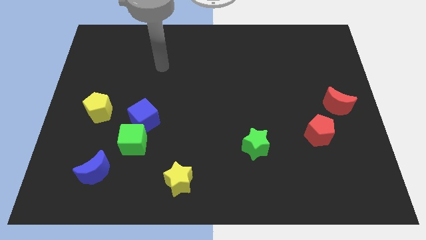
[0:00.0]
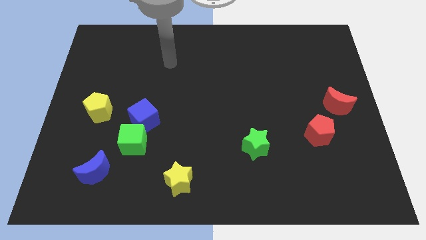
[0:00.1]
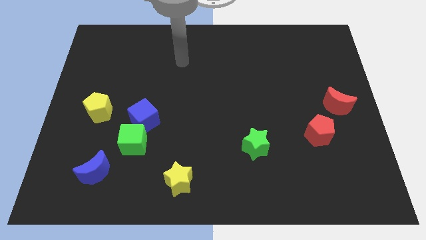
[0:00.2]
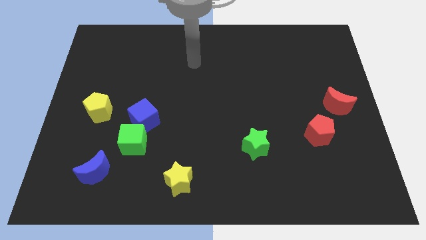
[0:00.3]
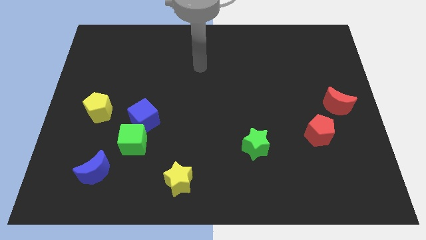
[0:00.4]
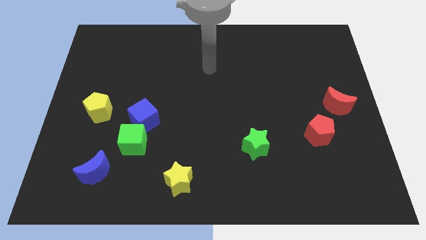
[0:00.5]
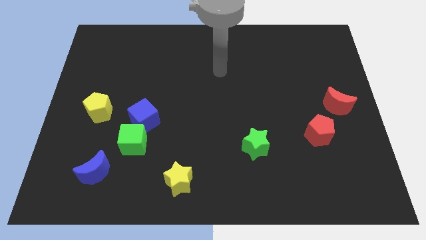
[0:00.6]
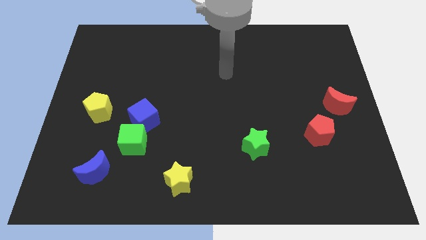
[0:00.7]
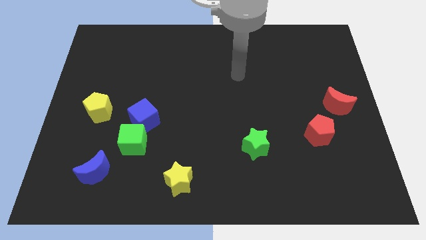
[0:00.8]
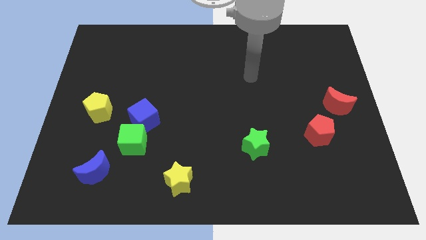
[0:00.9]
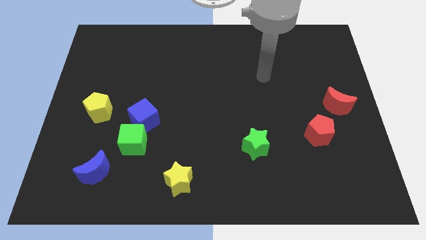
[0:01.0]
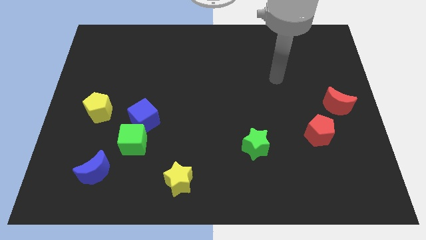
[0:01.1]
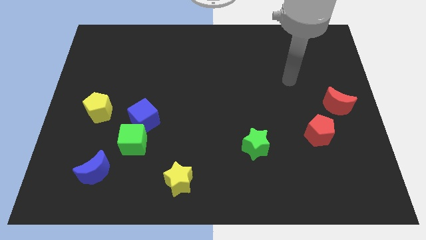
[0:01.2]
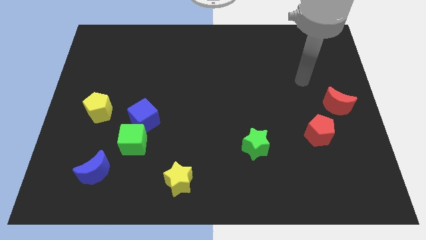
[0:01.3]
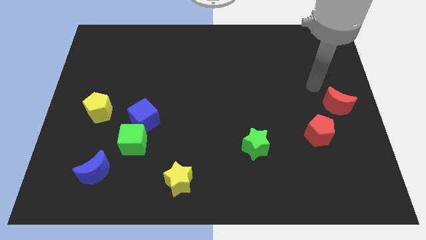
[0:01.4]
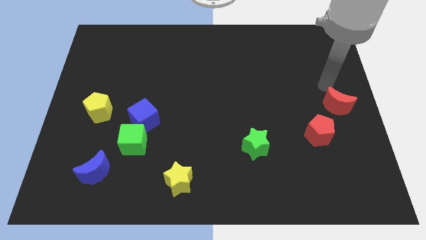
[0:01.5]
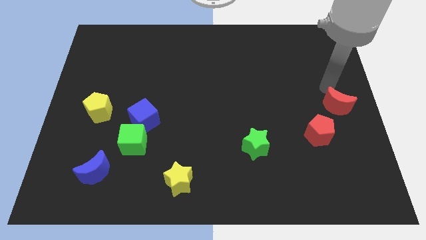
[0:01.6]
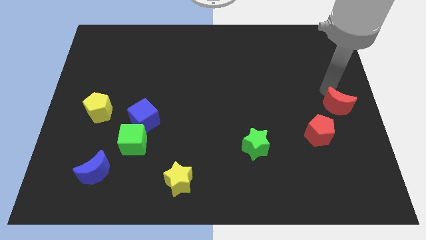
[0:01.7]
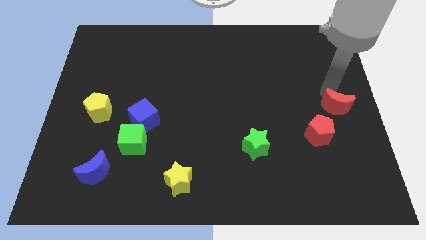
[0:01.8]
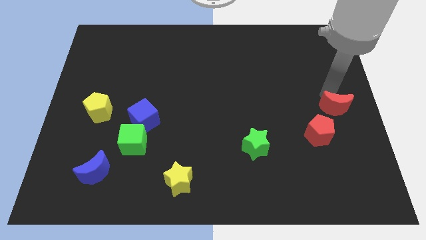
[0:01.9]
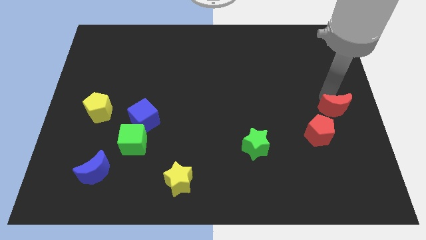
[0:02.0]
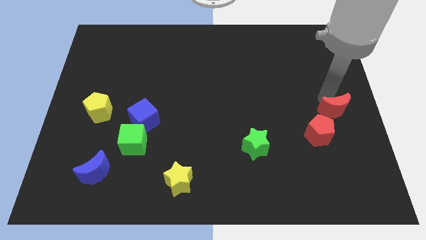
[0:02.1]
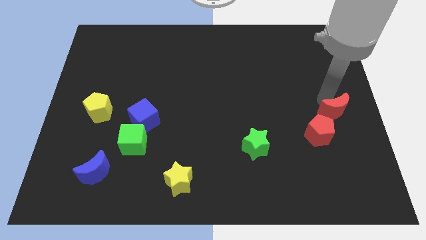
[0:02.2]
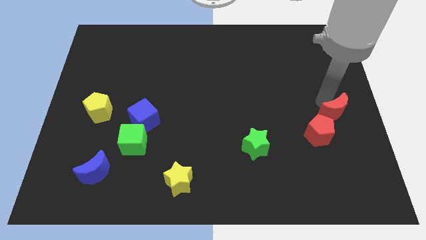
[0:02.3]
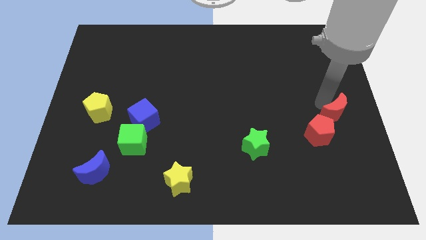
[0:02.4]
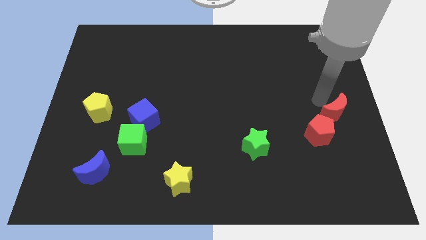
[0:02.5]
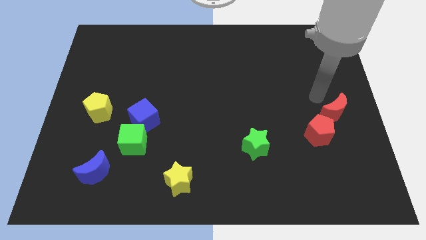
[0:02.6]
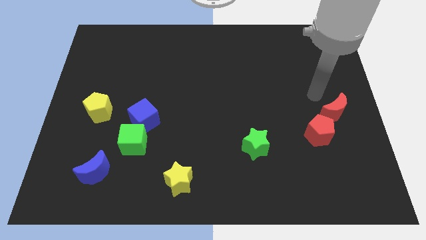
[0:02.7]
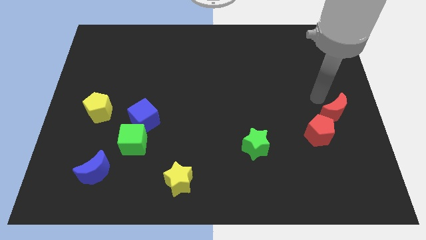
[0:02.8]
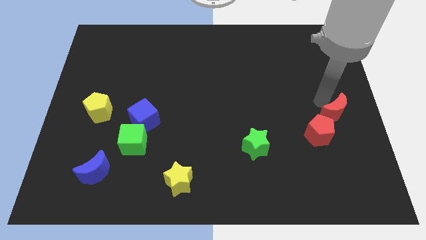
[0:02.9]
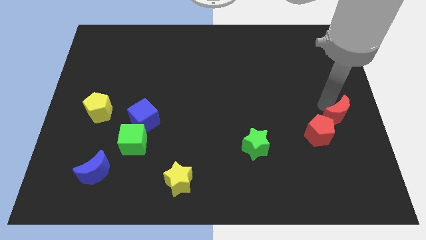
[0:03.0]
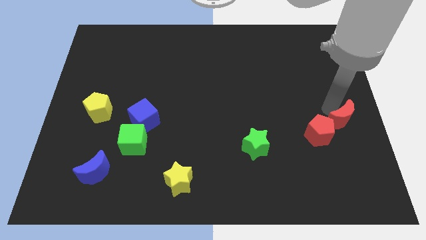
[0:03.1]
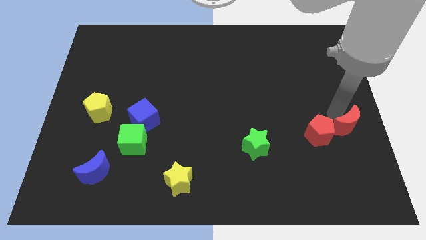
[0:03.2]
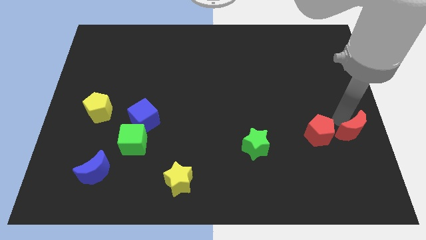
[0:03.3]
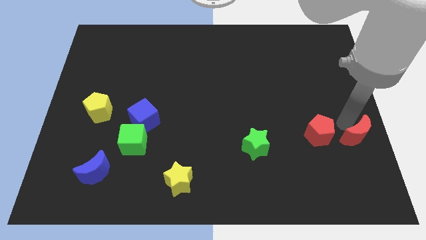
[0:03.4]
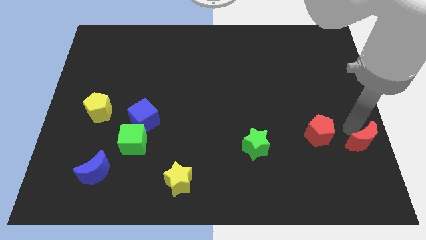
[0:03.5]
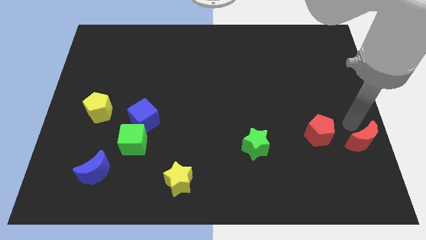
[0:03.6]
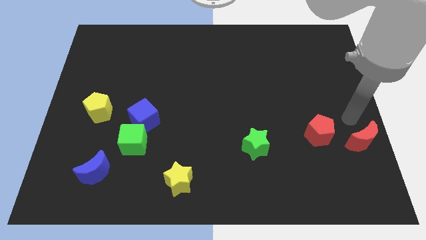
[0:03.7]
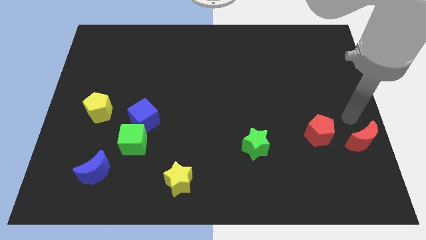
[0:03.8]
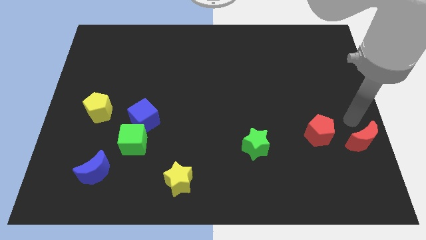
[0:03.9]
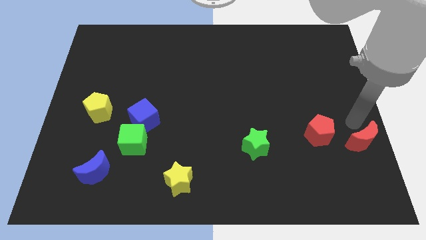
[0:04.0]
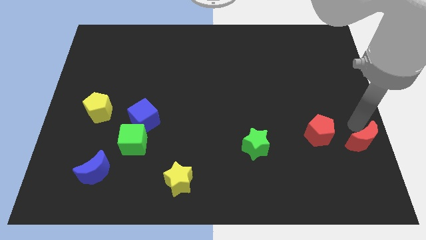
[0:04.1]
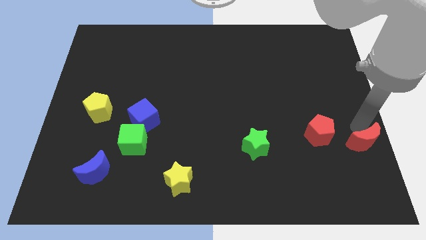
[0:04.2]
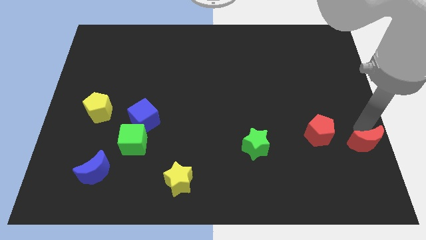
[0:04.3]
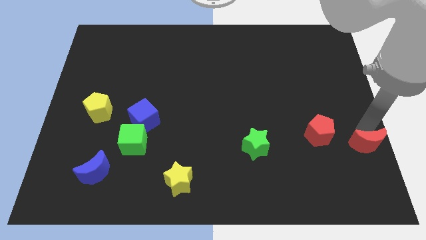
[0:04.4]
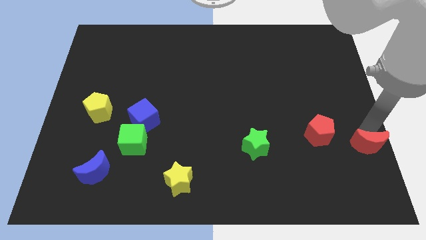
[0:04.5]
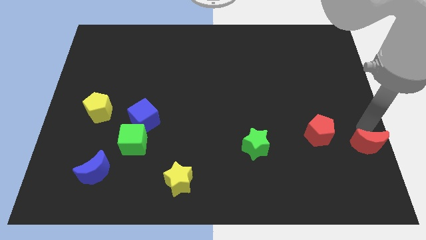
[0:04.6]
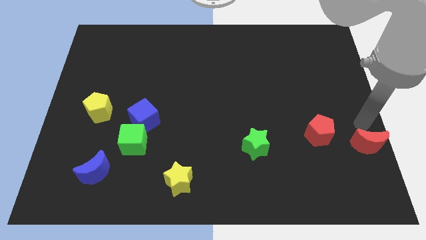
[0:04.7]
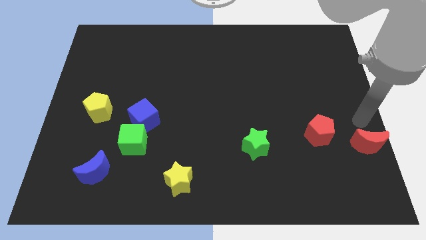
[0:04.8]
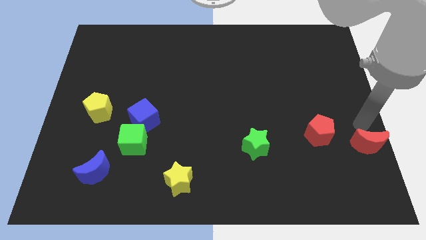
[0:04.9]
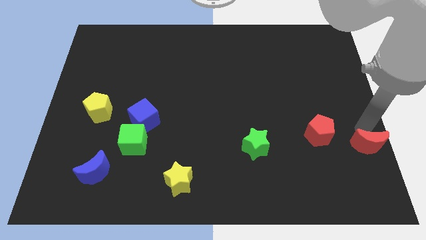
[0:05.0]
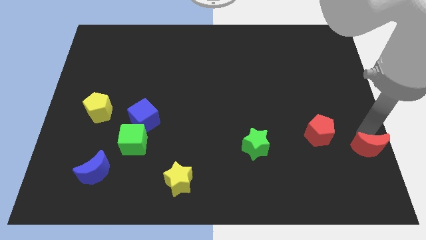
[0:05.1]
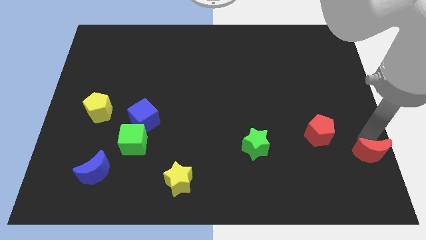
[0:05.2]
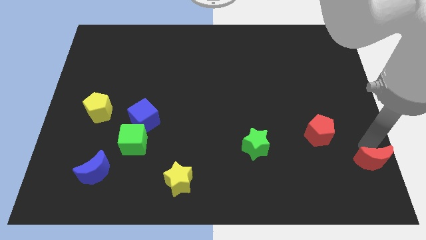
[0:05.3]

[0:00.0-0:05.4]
move the red moon to the bottom right of the board
